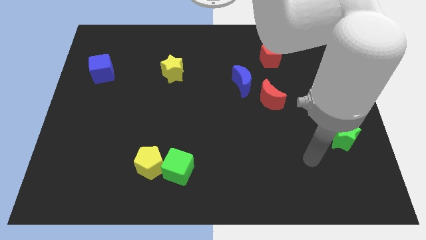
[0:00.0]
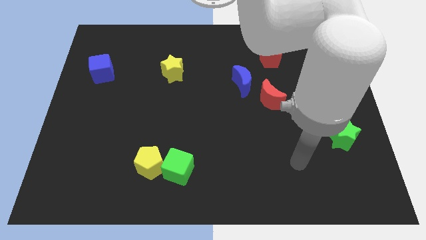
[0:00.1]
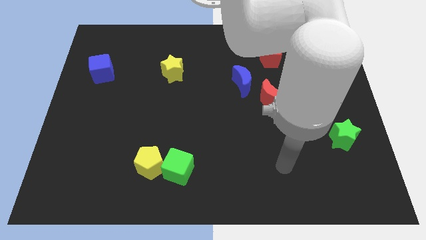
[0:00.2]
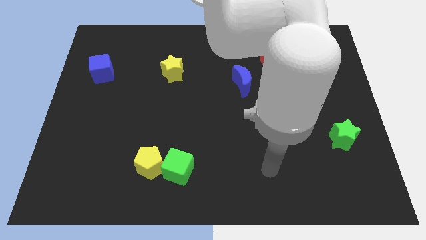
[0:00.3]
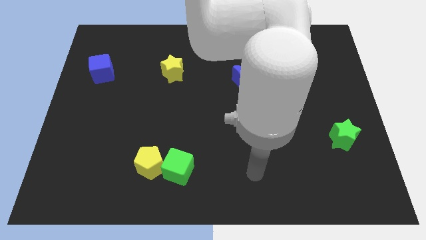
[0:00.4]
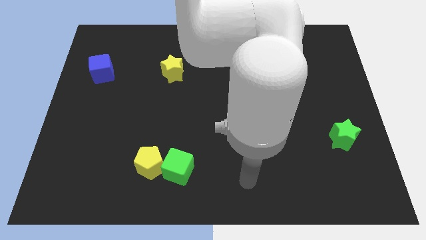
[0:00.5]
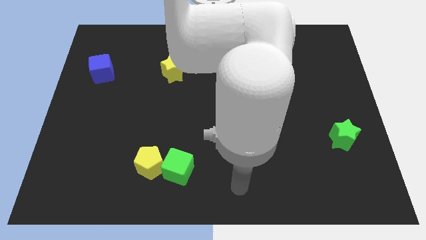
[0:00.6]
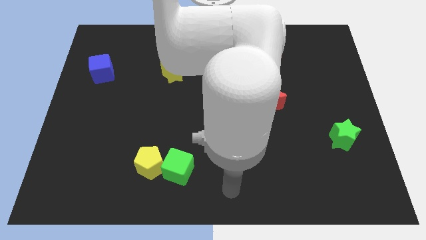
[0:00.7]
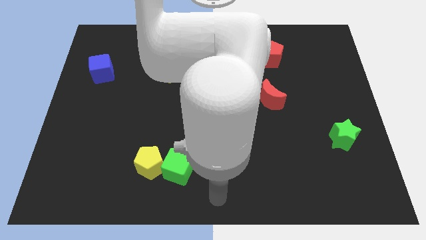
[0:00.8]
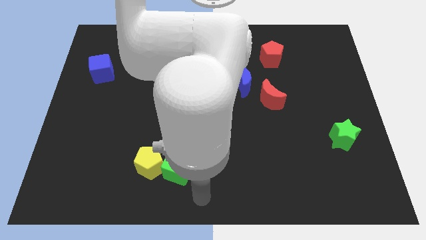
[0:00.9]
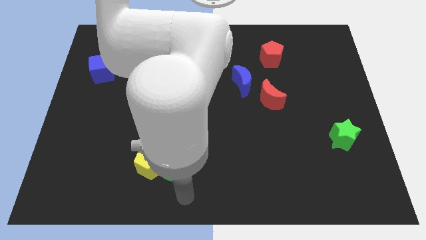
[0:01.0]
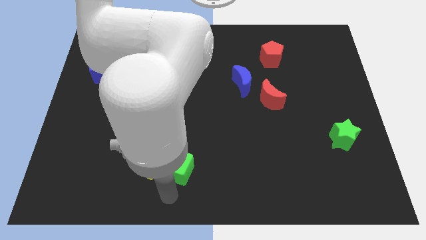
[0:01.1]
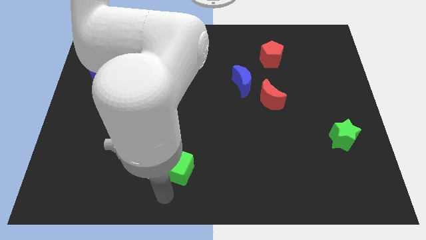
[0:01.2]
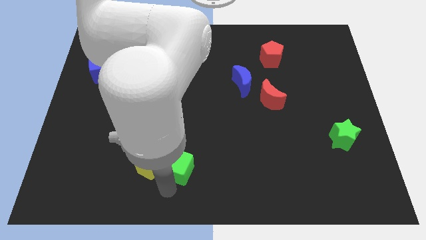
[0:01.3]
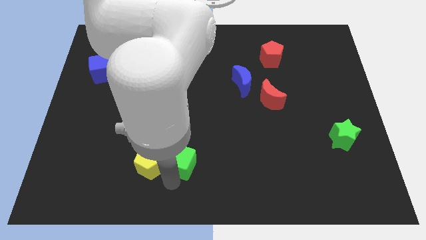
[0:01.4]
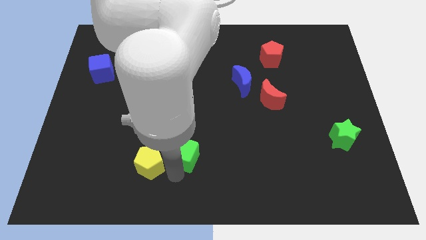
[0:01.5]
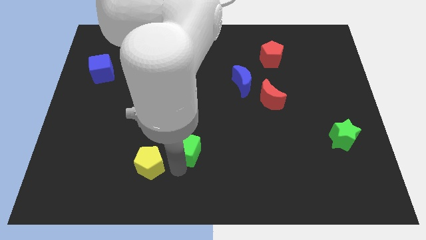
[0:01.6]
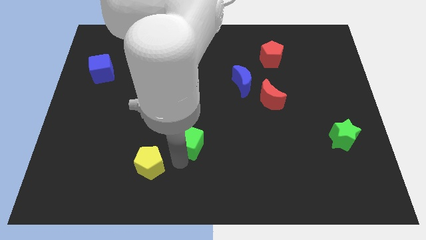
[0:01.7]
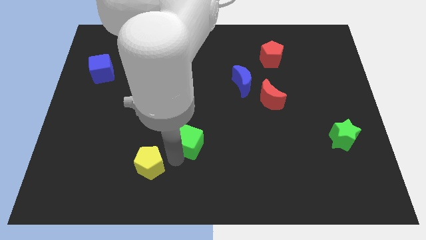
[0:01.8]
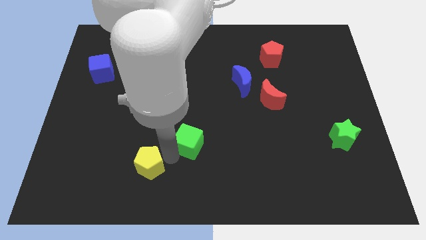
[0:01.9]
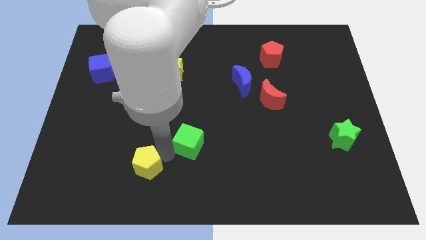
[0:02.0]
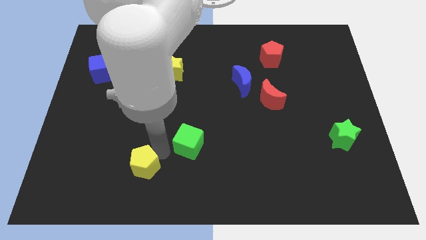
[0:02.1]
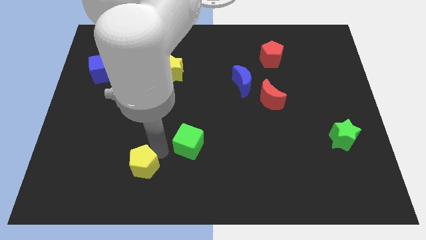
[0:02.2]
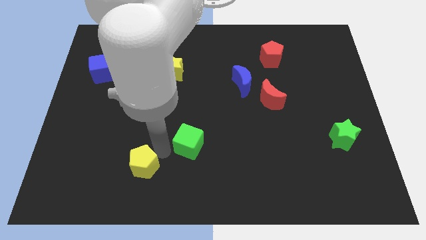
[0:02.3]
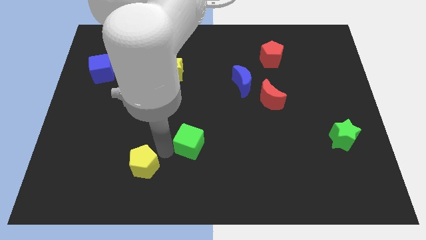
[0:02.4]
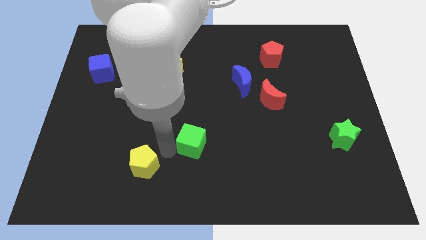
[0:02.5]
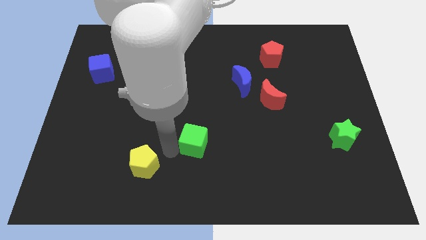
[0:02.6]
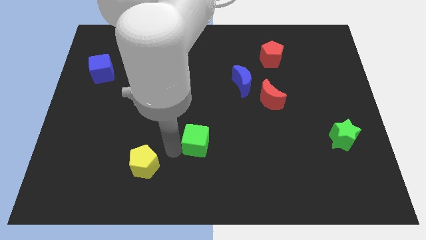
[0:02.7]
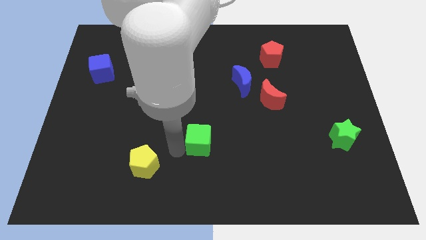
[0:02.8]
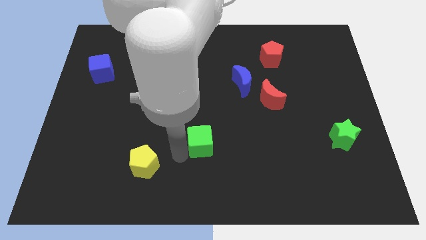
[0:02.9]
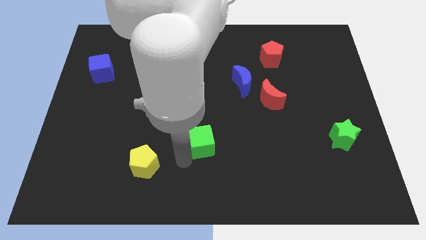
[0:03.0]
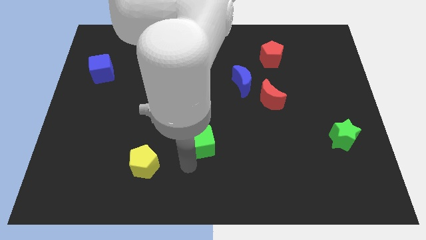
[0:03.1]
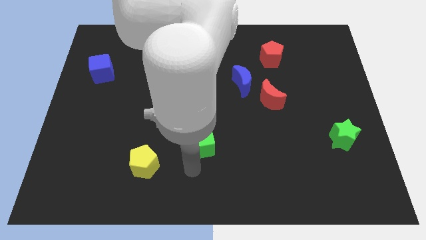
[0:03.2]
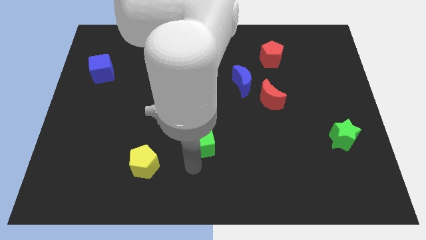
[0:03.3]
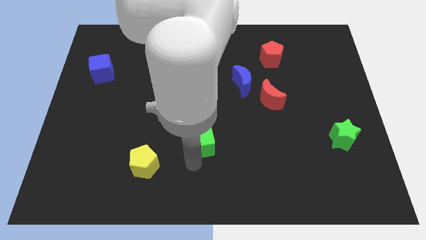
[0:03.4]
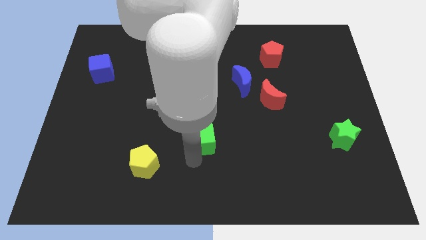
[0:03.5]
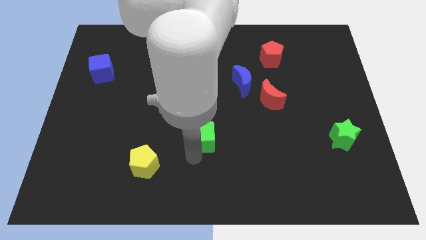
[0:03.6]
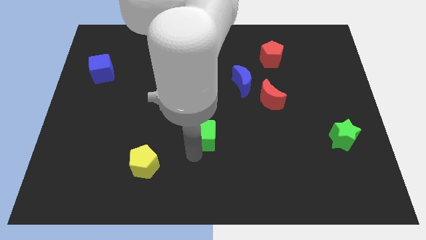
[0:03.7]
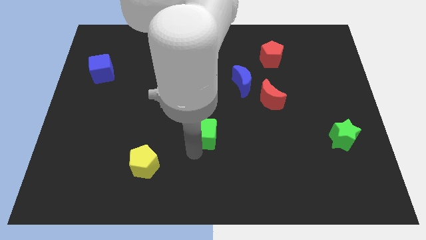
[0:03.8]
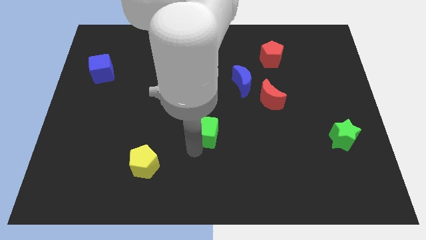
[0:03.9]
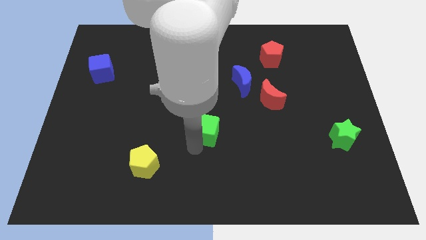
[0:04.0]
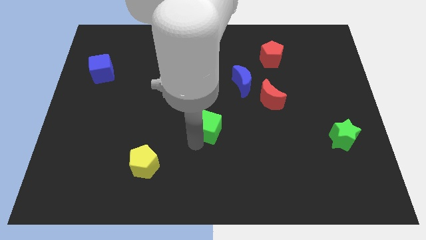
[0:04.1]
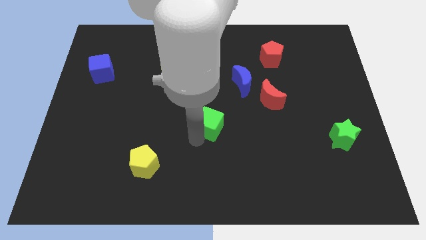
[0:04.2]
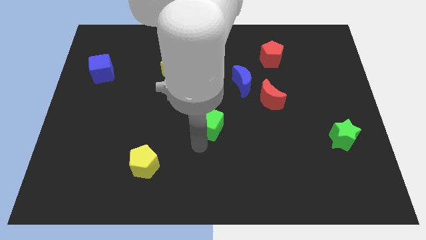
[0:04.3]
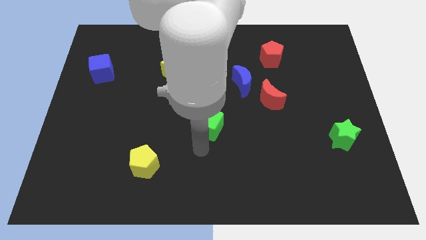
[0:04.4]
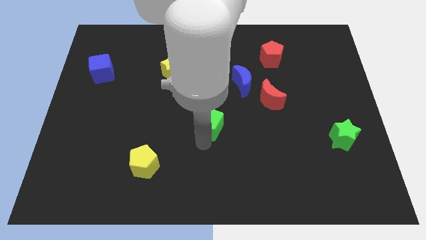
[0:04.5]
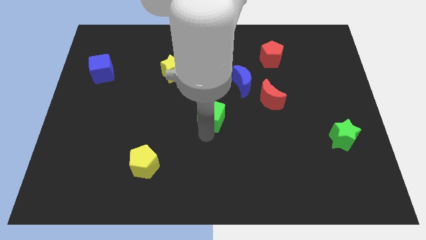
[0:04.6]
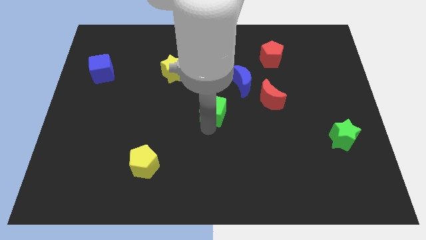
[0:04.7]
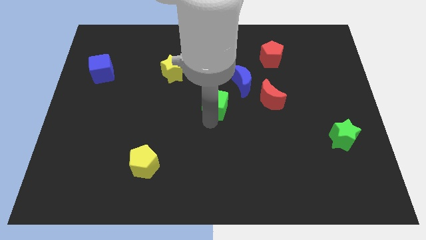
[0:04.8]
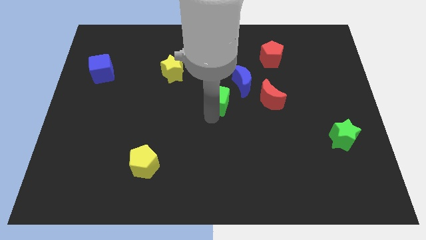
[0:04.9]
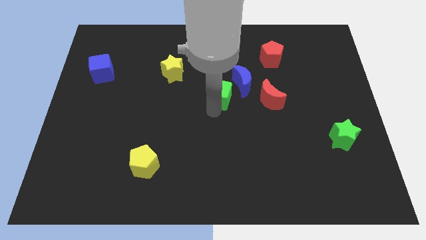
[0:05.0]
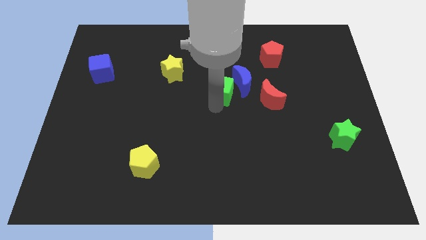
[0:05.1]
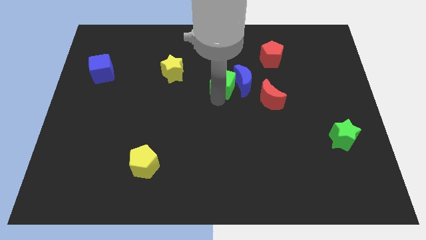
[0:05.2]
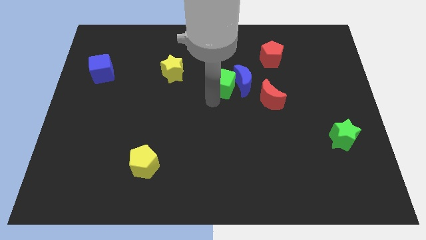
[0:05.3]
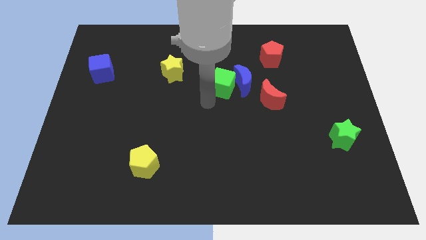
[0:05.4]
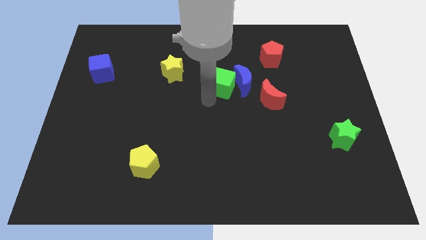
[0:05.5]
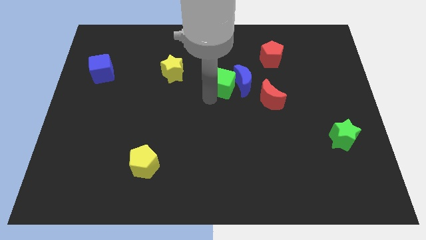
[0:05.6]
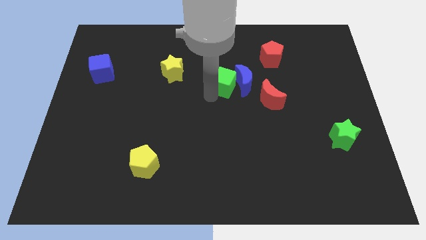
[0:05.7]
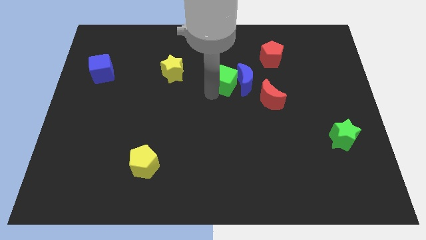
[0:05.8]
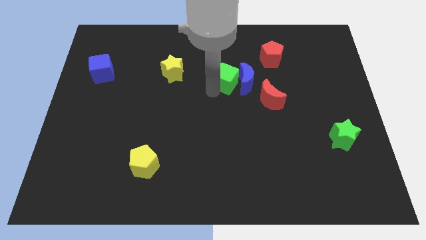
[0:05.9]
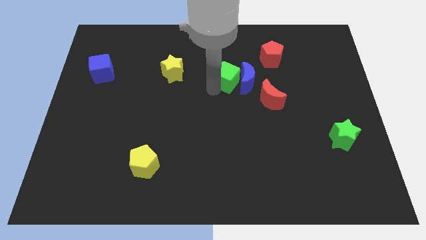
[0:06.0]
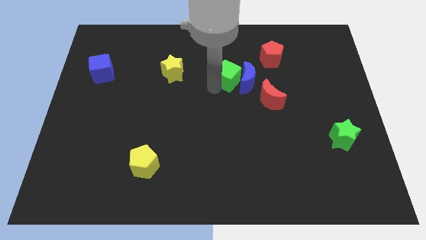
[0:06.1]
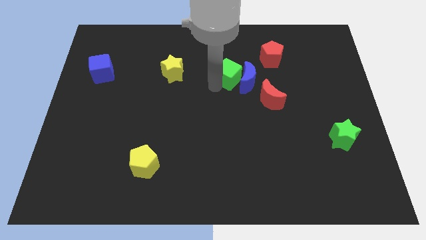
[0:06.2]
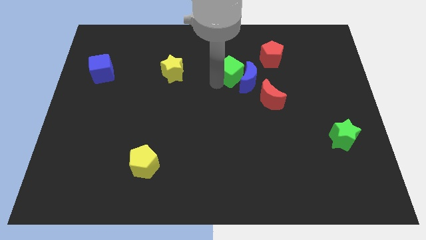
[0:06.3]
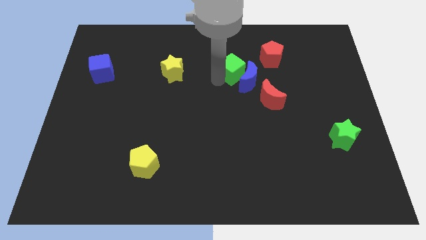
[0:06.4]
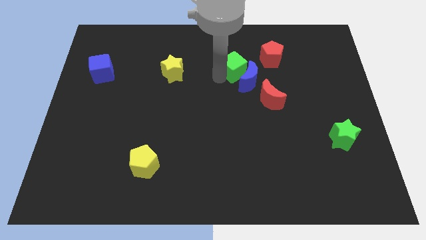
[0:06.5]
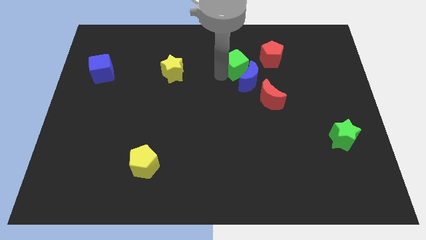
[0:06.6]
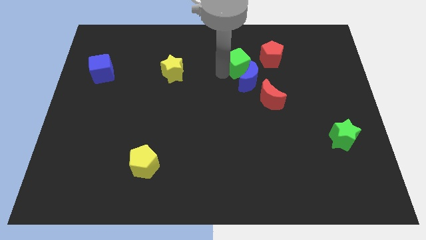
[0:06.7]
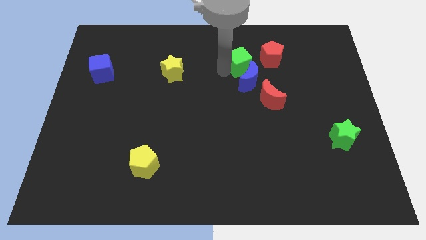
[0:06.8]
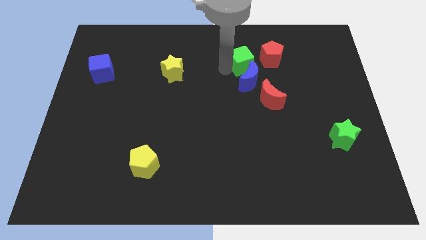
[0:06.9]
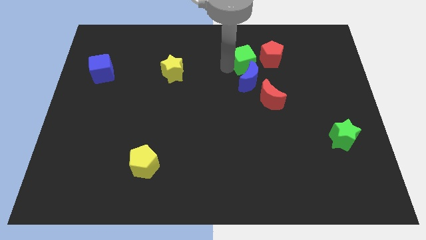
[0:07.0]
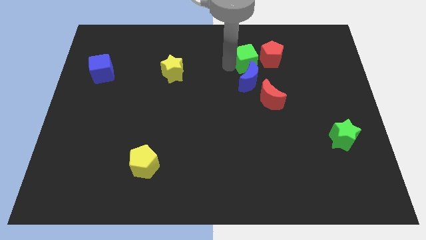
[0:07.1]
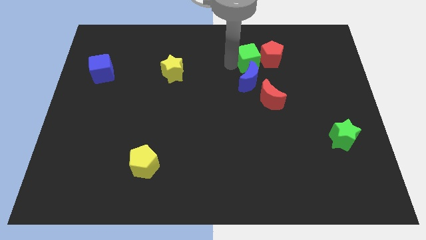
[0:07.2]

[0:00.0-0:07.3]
push the green cube to the red pentagon

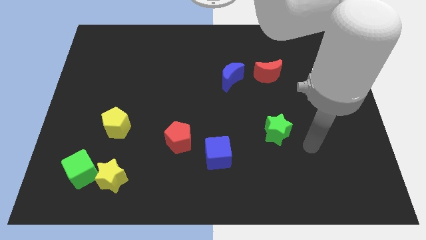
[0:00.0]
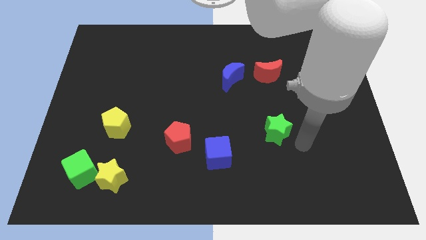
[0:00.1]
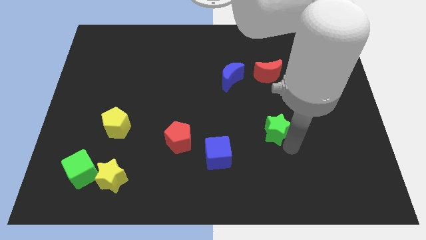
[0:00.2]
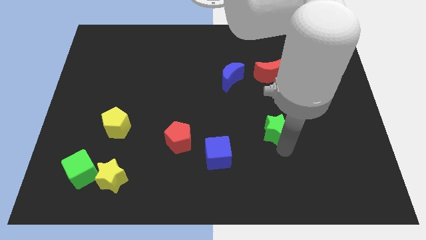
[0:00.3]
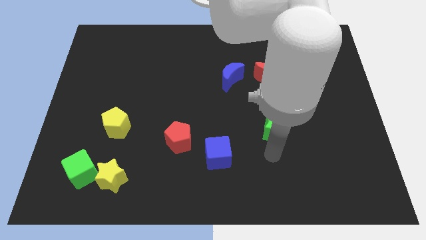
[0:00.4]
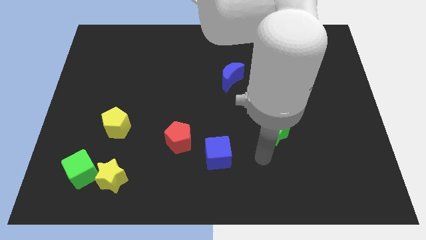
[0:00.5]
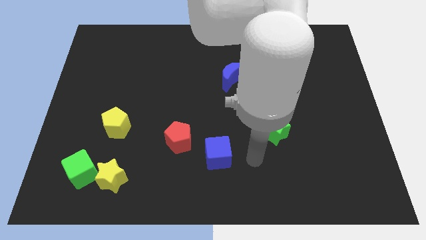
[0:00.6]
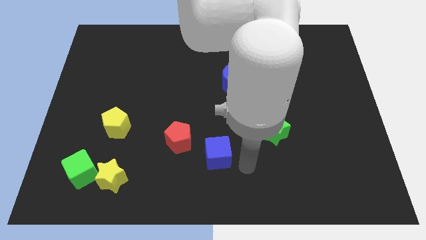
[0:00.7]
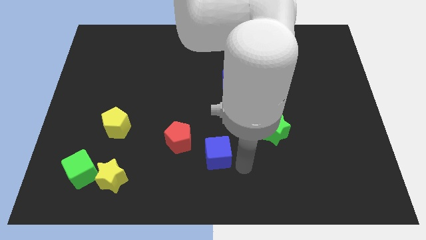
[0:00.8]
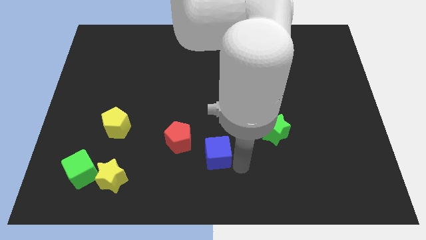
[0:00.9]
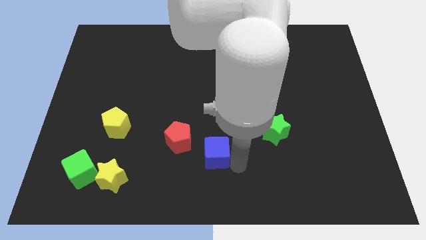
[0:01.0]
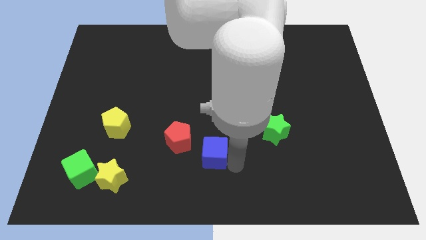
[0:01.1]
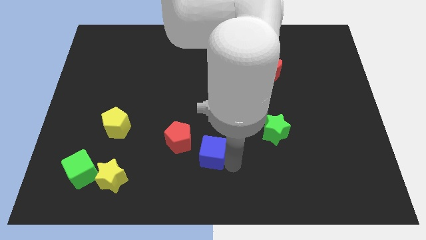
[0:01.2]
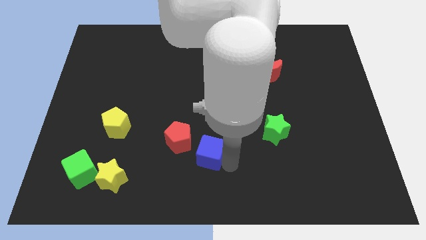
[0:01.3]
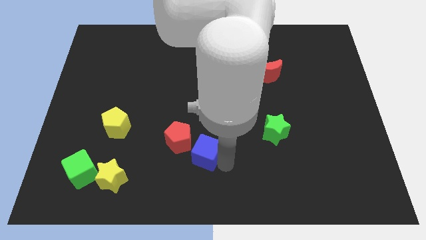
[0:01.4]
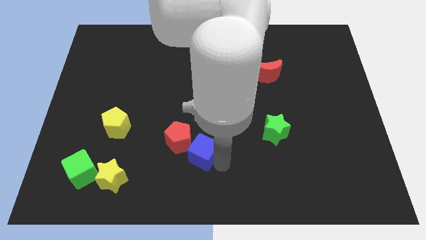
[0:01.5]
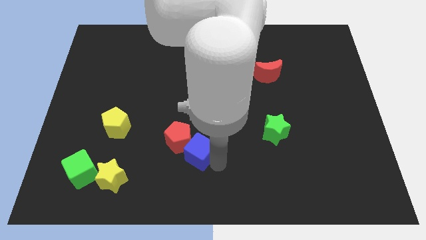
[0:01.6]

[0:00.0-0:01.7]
slide the blue cube towards the red pentagon
